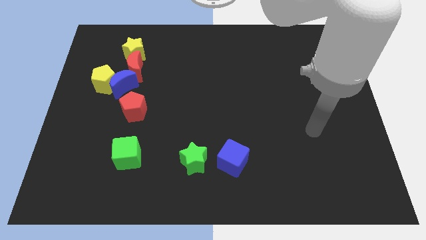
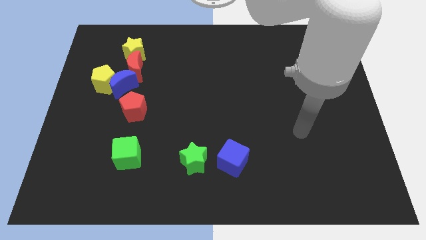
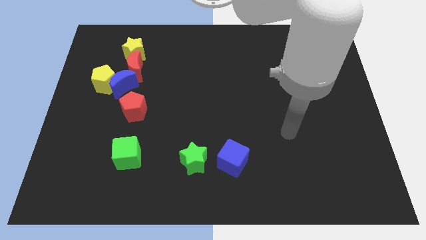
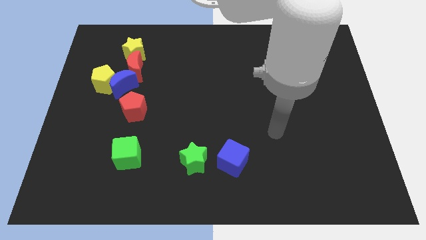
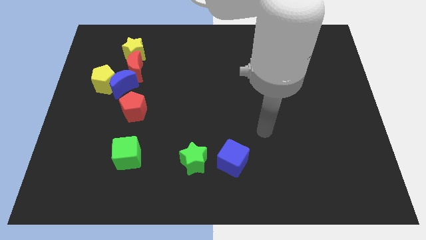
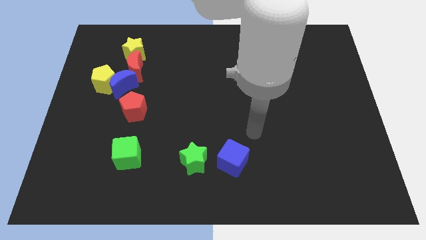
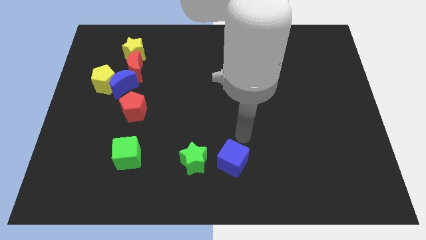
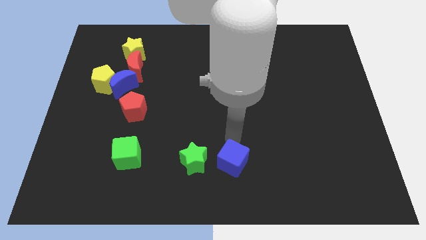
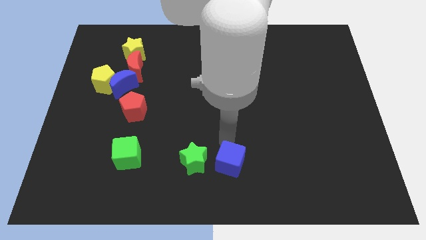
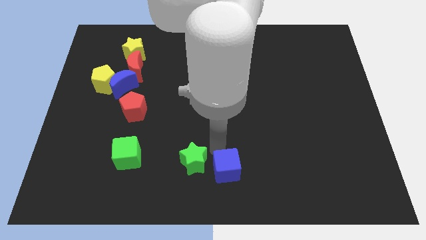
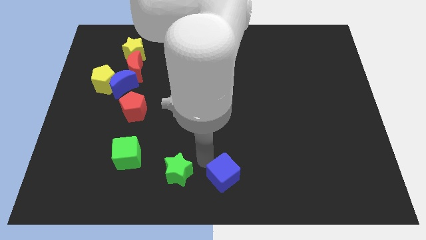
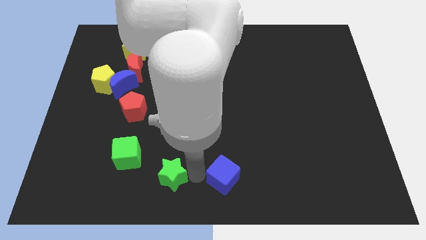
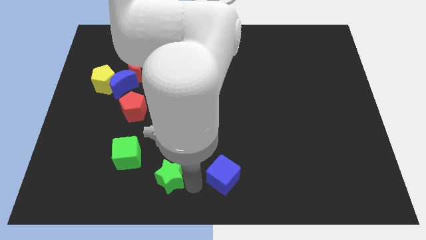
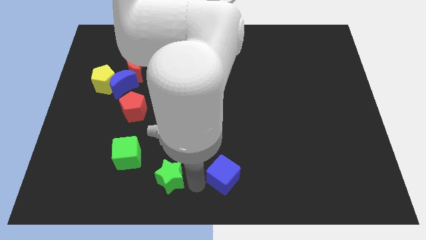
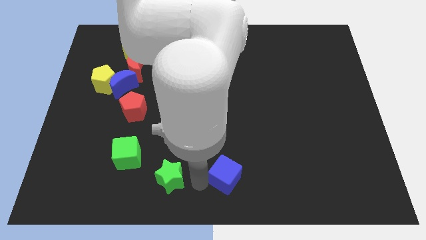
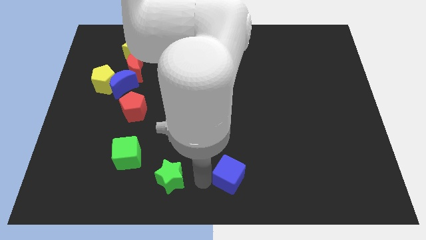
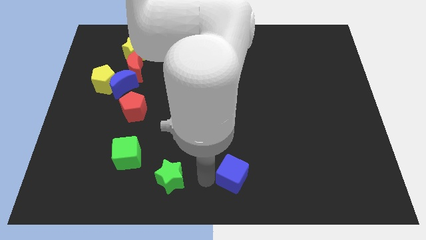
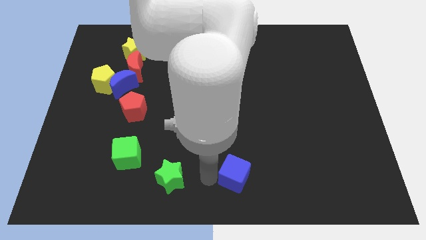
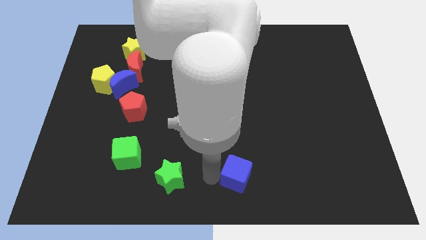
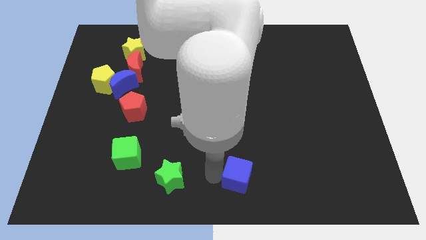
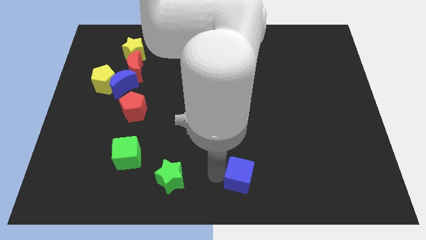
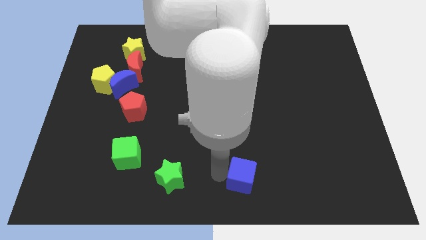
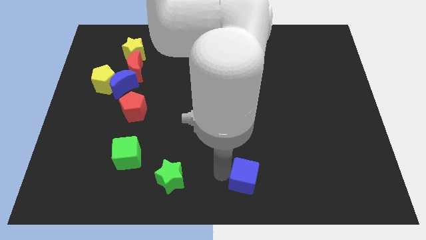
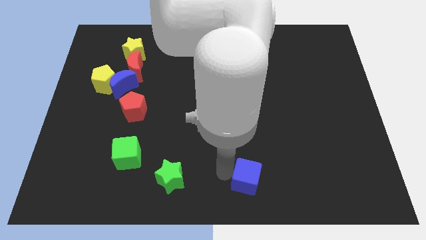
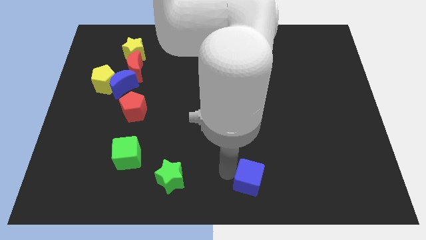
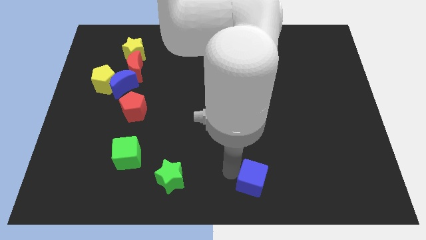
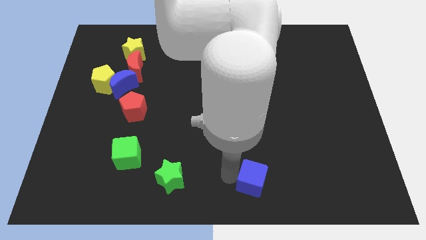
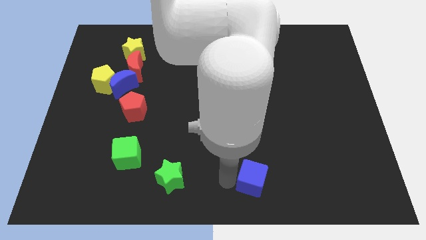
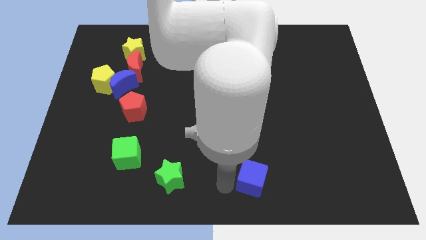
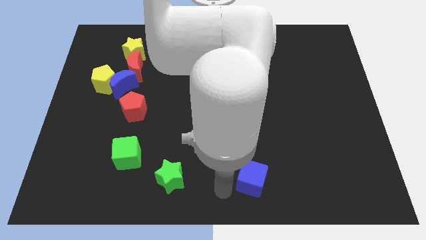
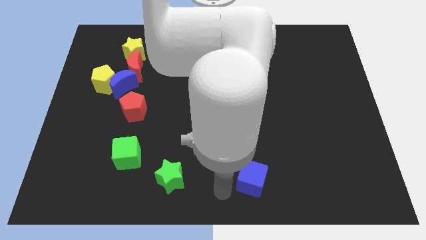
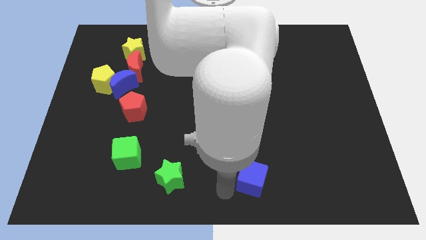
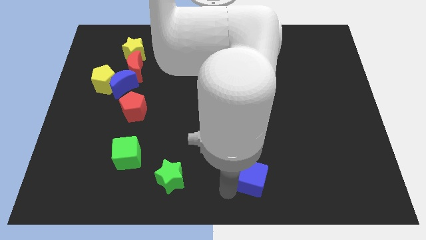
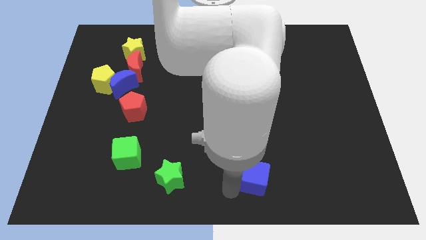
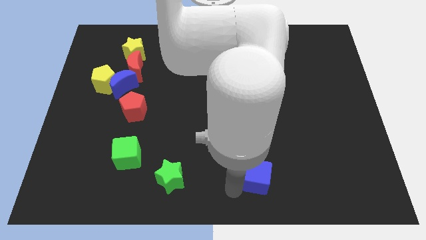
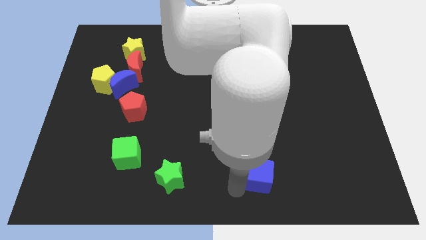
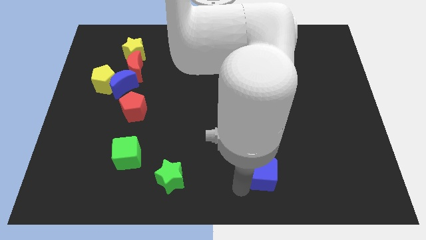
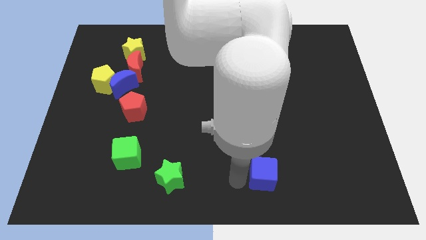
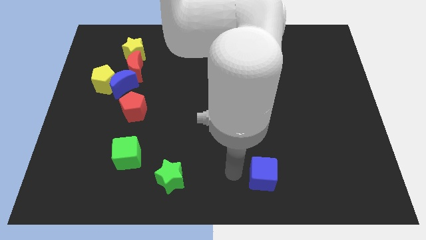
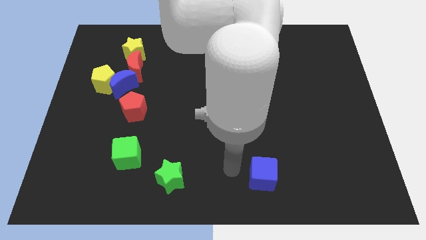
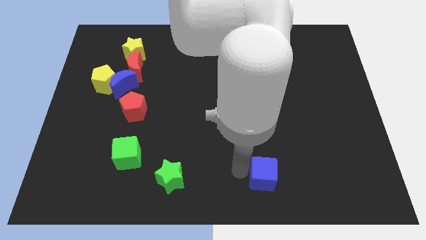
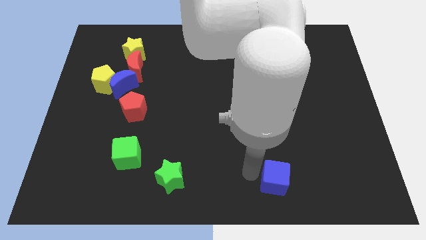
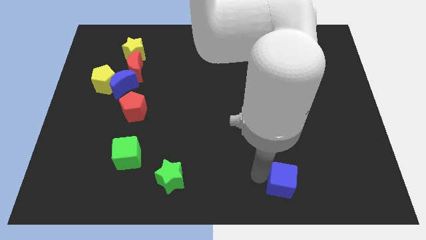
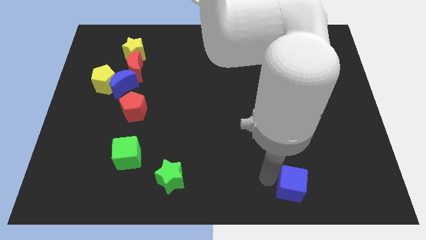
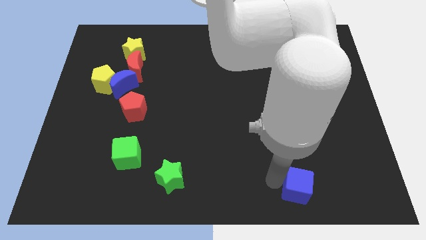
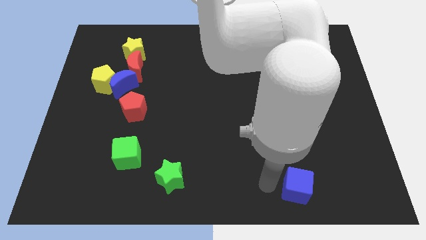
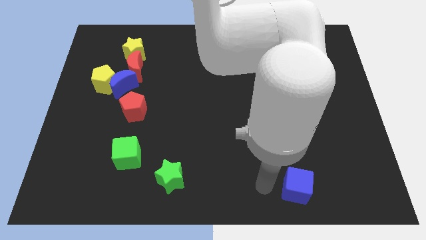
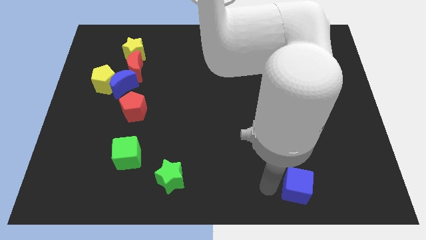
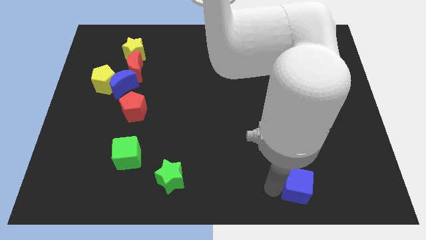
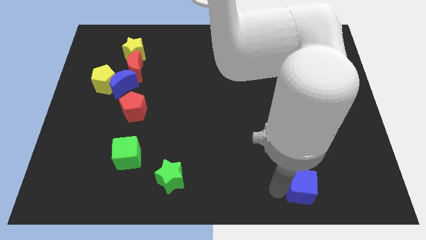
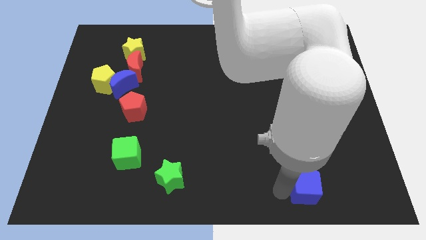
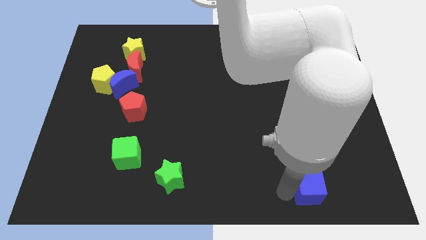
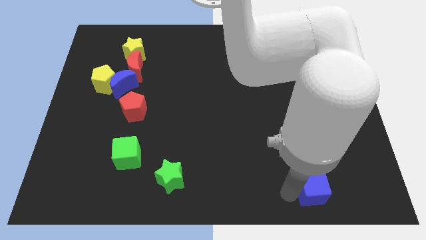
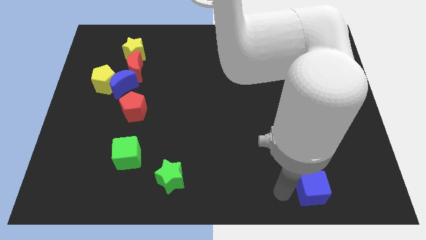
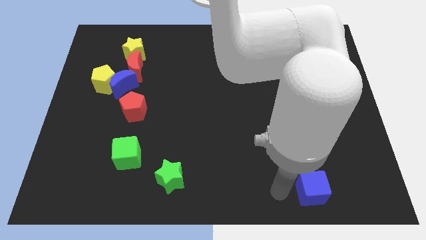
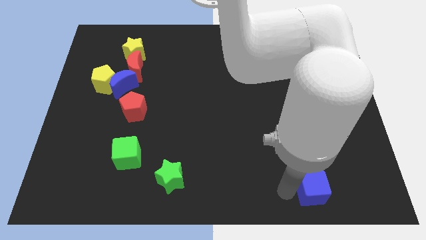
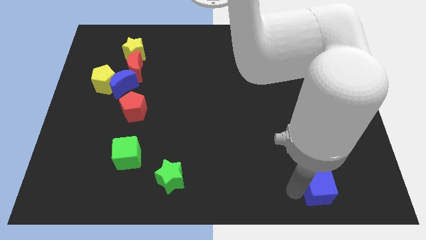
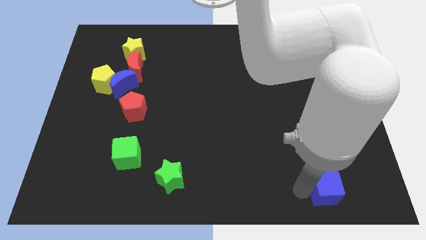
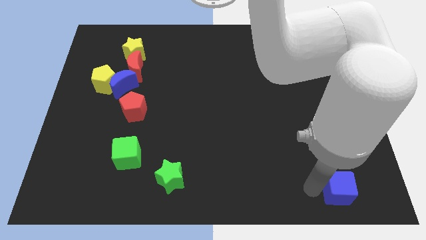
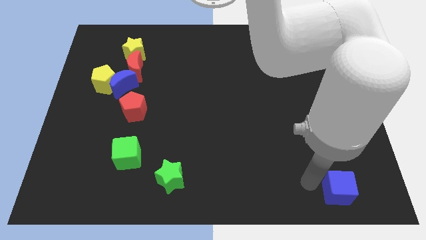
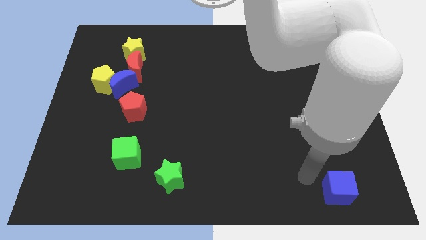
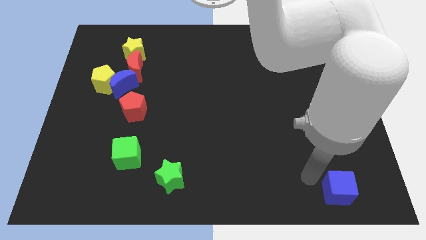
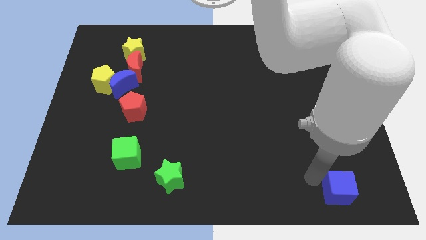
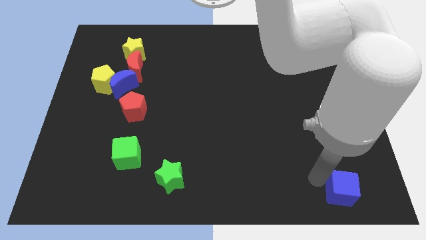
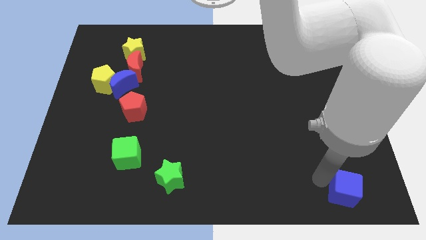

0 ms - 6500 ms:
move the blue cube to the lower right corner
